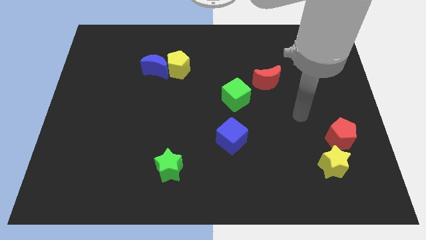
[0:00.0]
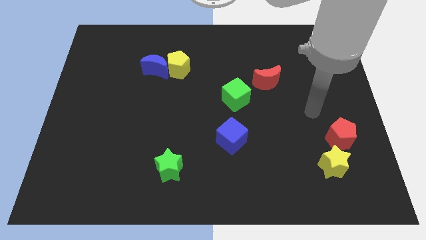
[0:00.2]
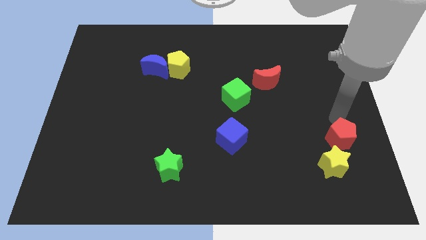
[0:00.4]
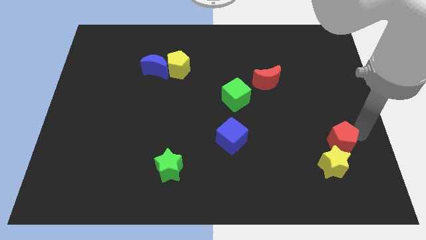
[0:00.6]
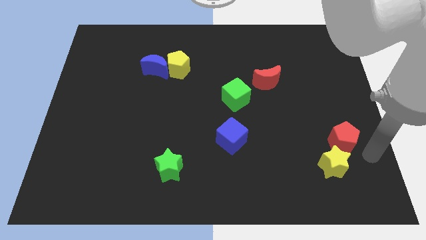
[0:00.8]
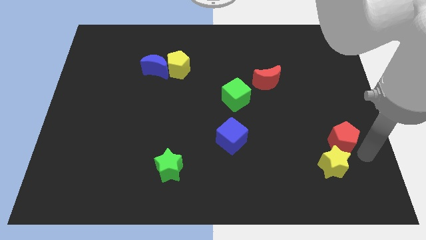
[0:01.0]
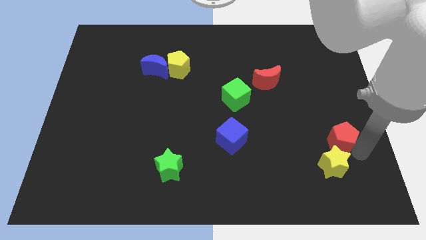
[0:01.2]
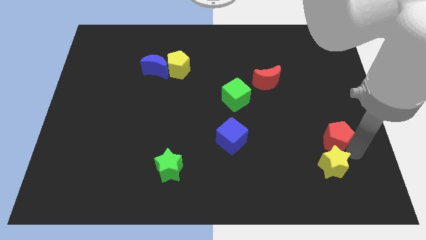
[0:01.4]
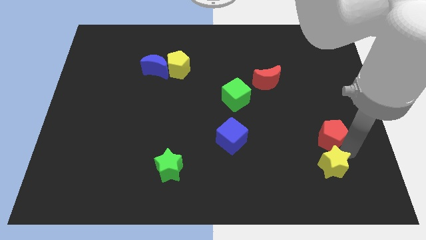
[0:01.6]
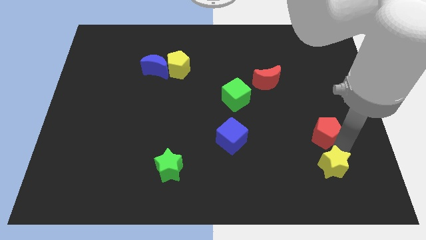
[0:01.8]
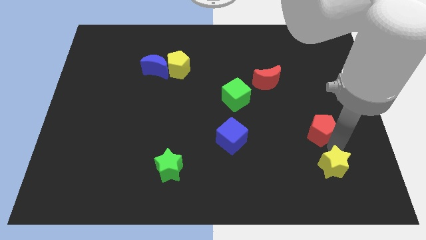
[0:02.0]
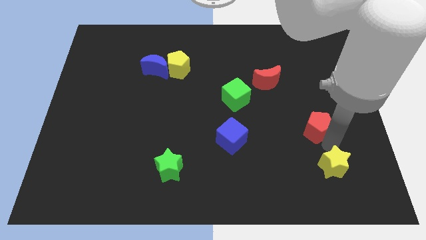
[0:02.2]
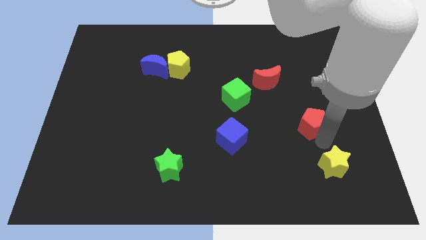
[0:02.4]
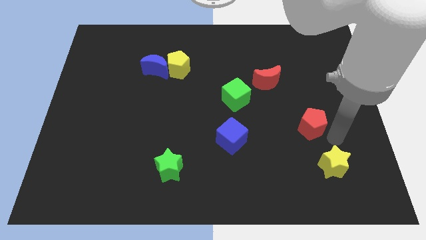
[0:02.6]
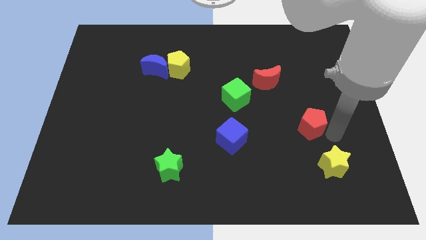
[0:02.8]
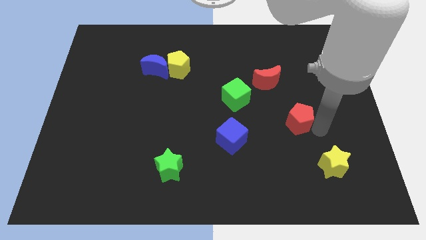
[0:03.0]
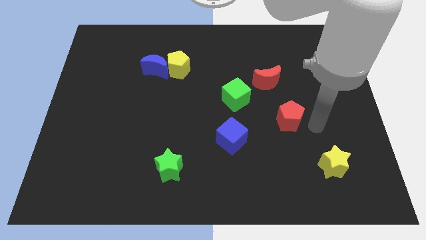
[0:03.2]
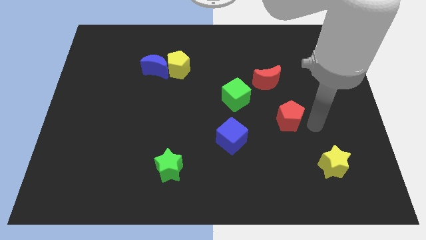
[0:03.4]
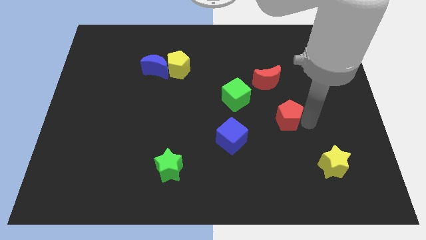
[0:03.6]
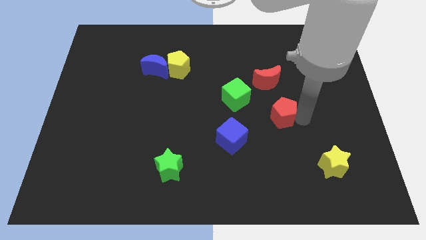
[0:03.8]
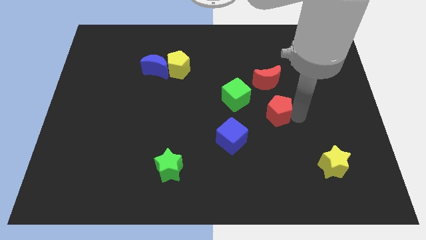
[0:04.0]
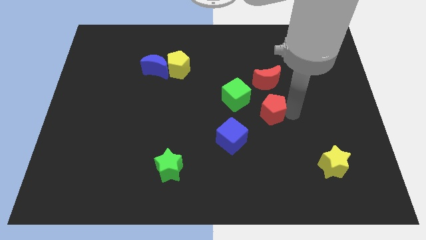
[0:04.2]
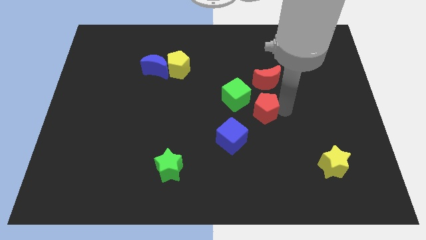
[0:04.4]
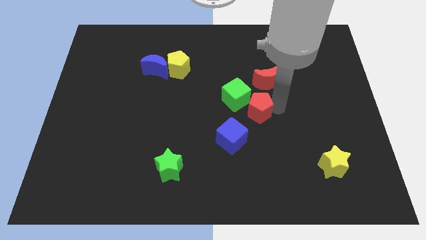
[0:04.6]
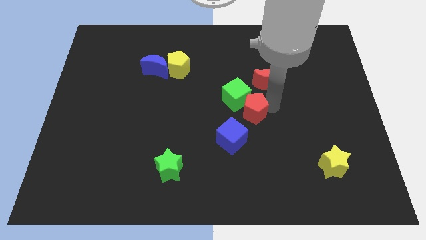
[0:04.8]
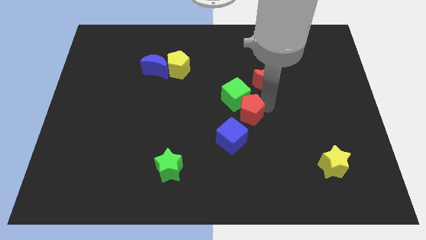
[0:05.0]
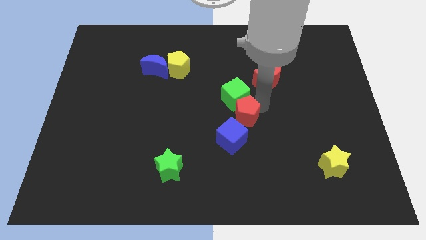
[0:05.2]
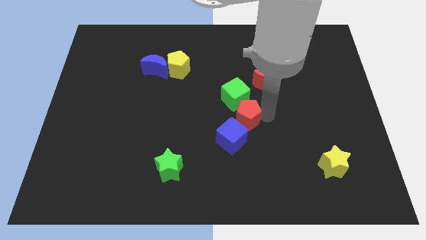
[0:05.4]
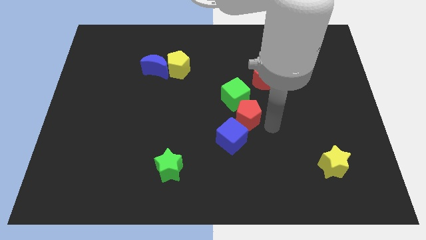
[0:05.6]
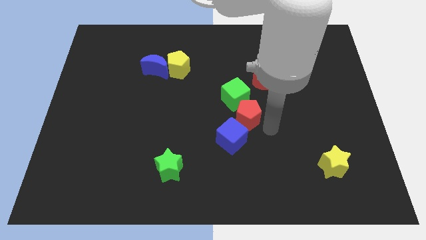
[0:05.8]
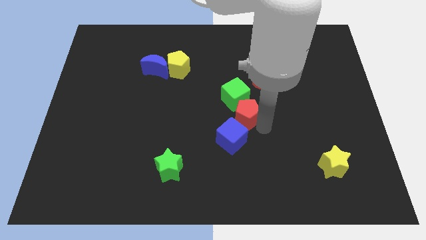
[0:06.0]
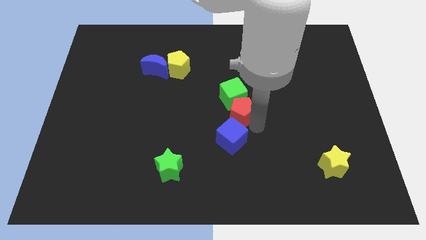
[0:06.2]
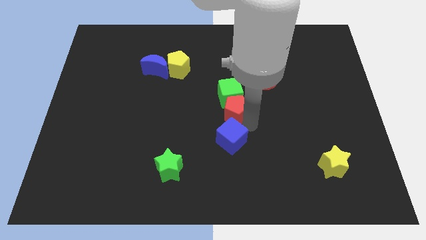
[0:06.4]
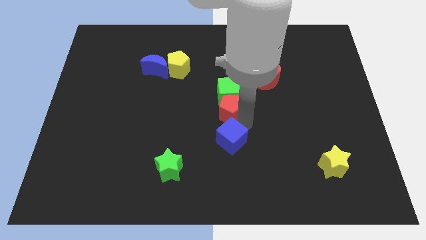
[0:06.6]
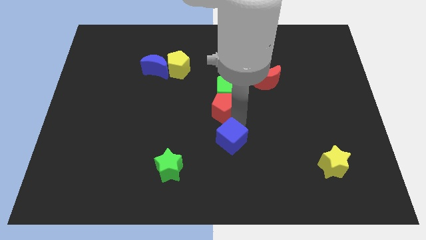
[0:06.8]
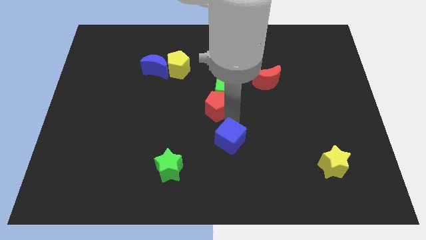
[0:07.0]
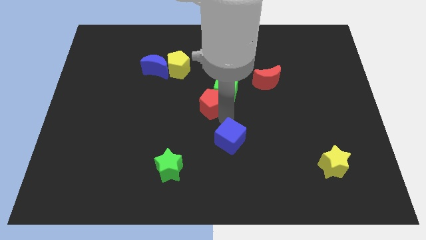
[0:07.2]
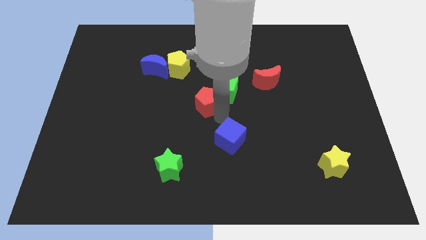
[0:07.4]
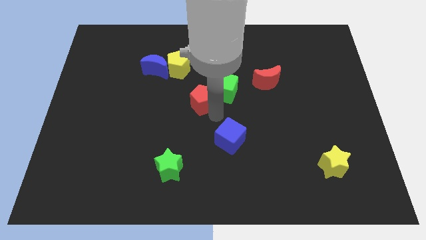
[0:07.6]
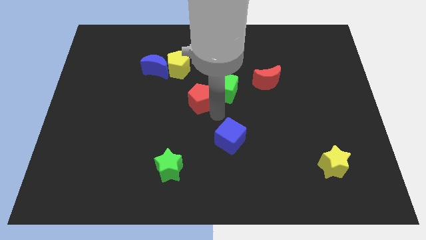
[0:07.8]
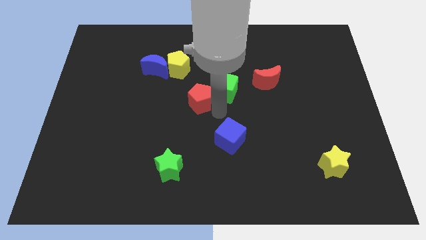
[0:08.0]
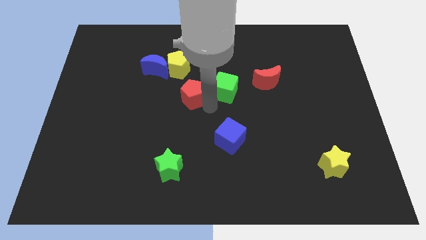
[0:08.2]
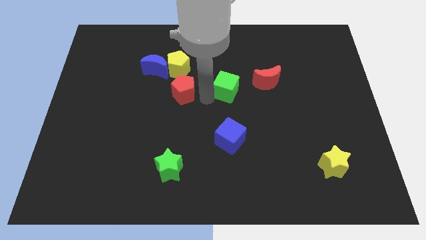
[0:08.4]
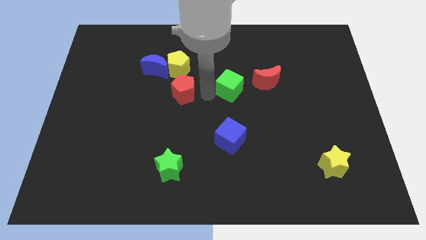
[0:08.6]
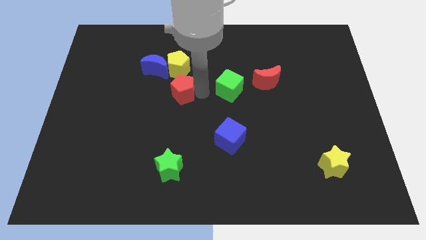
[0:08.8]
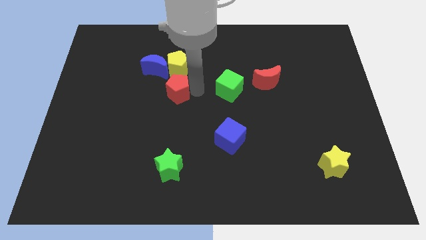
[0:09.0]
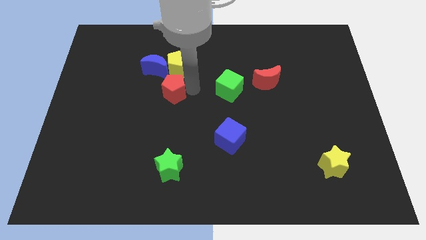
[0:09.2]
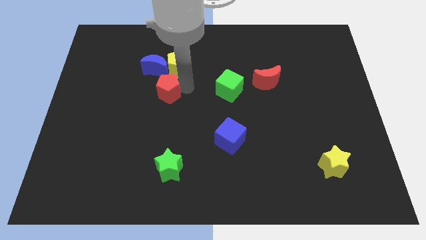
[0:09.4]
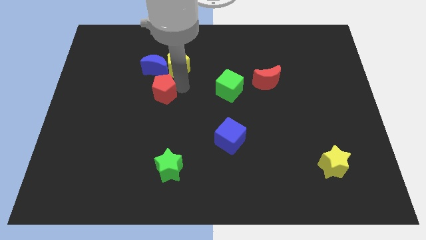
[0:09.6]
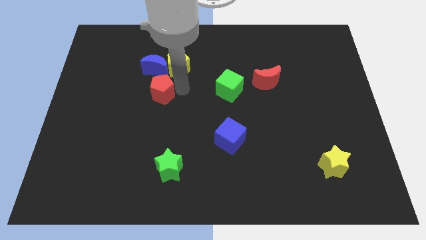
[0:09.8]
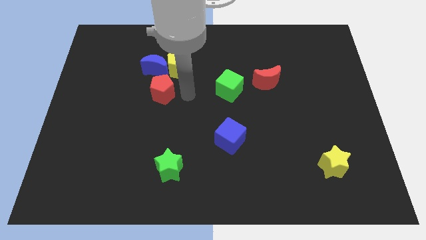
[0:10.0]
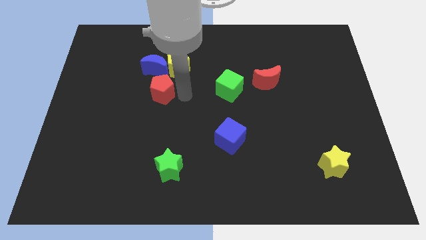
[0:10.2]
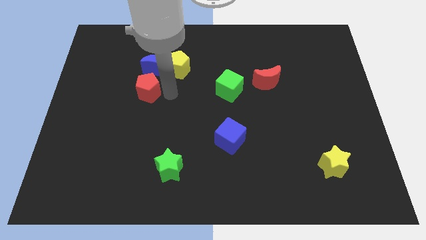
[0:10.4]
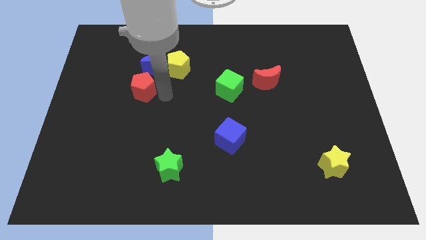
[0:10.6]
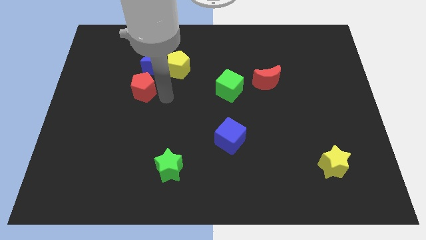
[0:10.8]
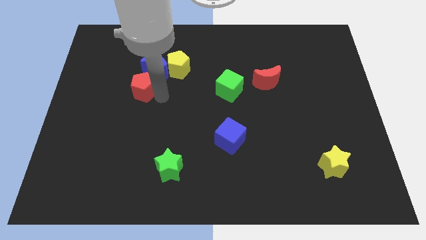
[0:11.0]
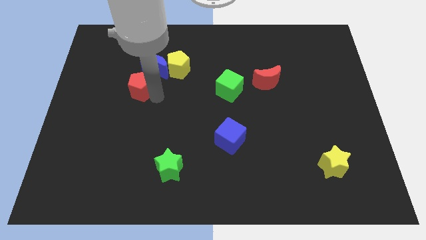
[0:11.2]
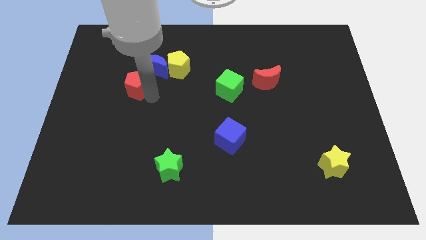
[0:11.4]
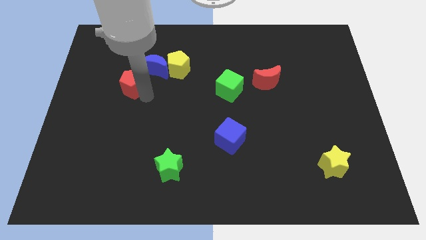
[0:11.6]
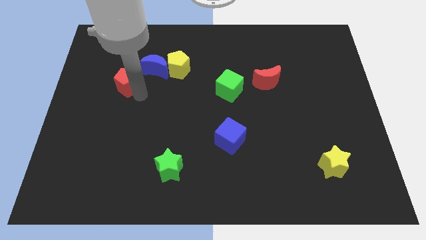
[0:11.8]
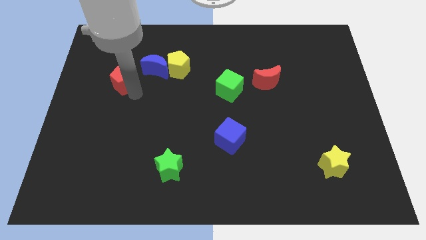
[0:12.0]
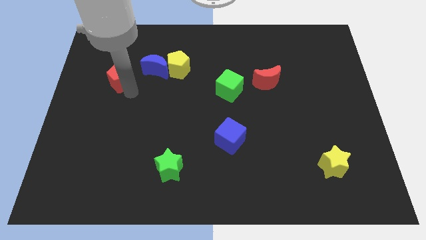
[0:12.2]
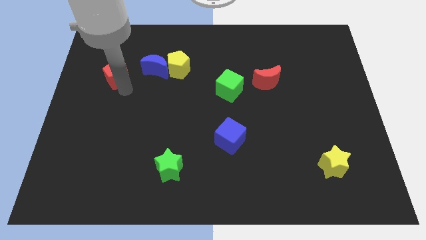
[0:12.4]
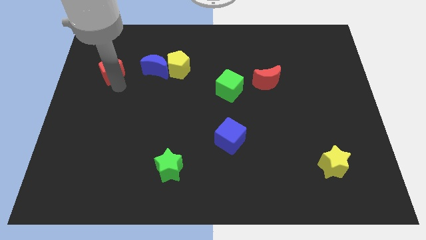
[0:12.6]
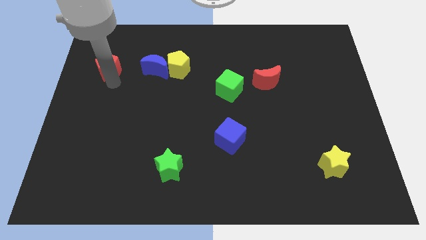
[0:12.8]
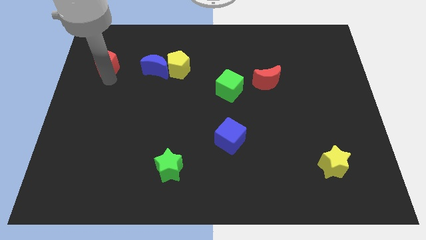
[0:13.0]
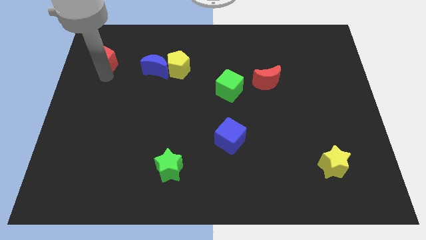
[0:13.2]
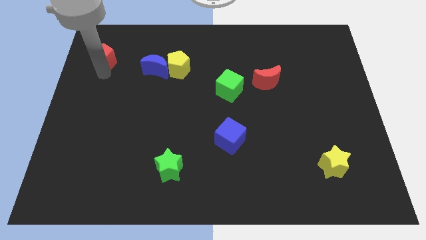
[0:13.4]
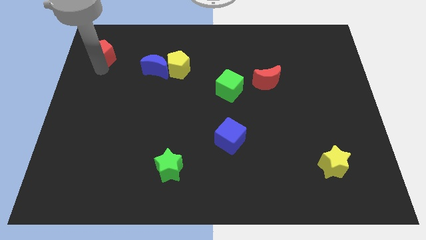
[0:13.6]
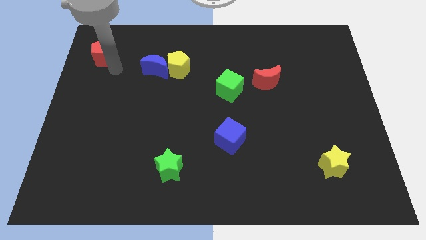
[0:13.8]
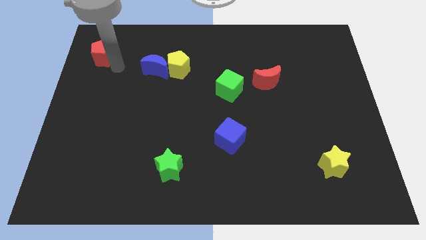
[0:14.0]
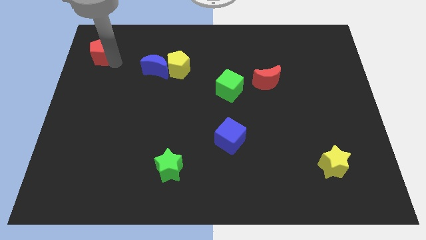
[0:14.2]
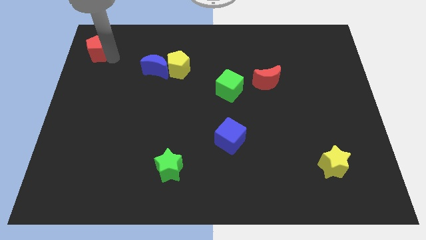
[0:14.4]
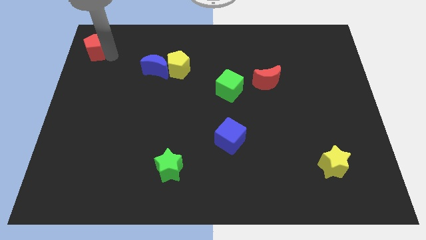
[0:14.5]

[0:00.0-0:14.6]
move the red pentagon to the top left corner
